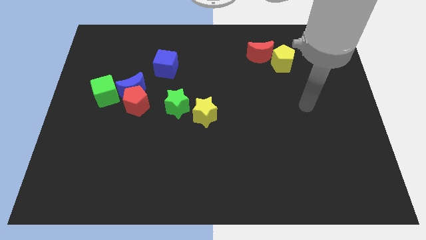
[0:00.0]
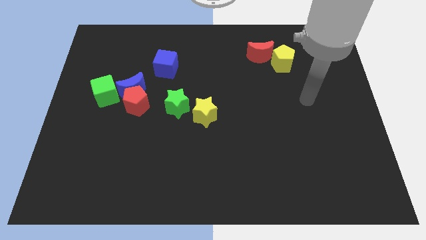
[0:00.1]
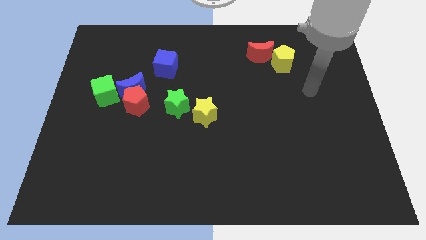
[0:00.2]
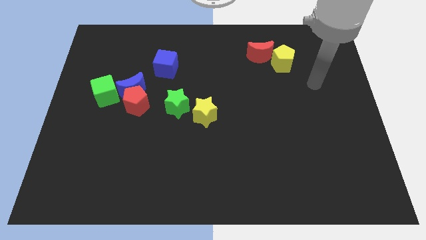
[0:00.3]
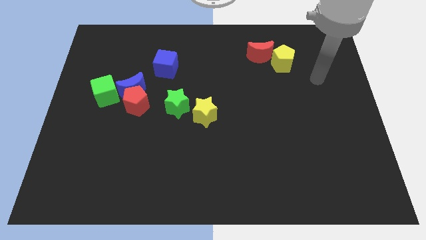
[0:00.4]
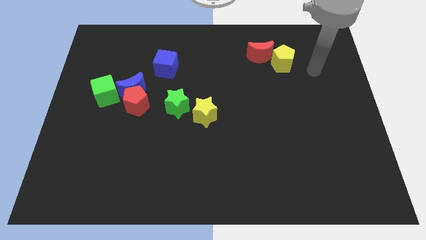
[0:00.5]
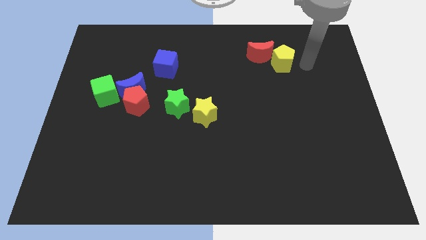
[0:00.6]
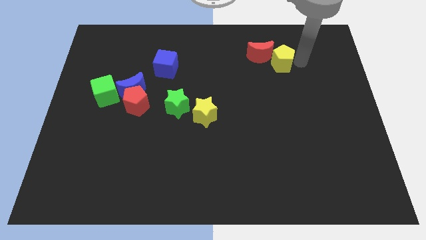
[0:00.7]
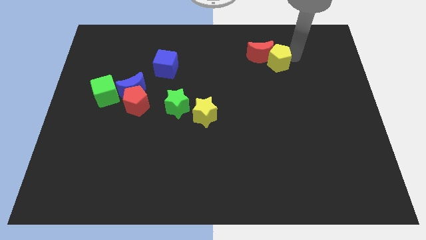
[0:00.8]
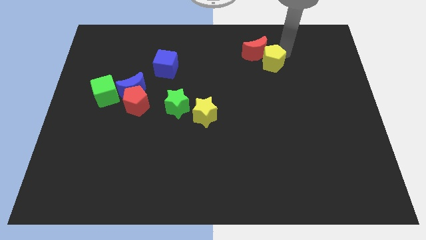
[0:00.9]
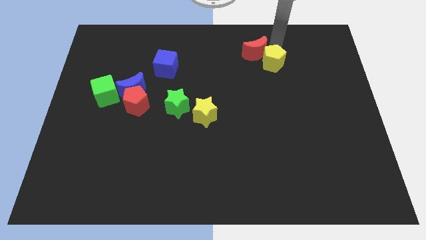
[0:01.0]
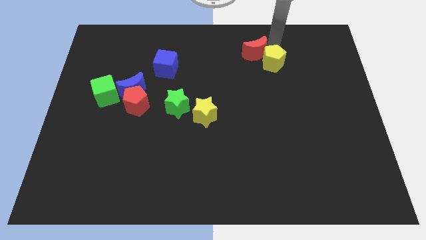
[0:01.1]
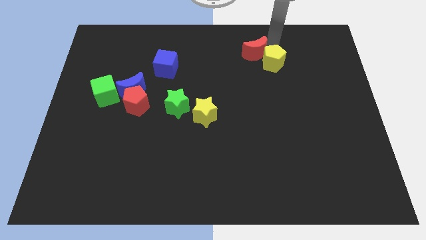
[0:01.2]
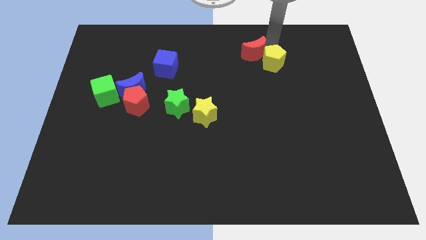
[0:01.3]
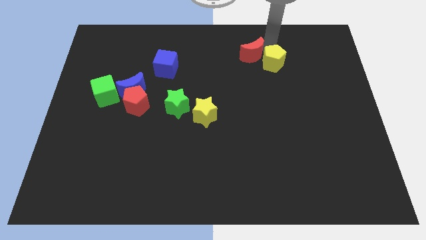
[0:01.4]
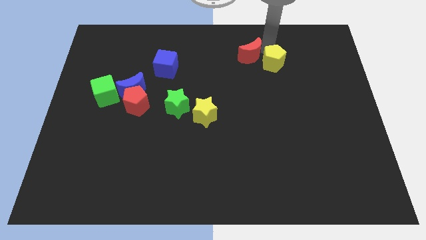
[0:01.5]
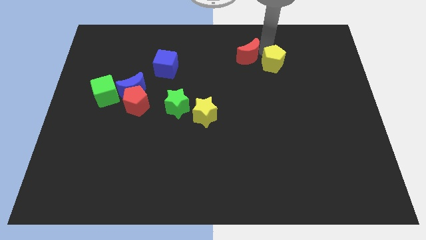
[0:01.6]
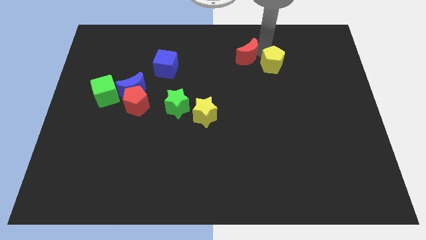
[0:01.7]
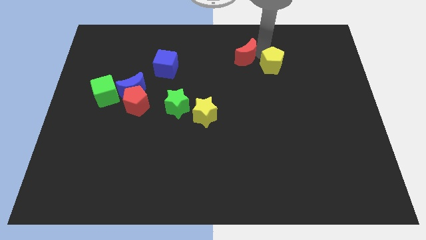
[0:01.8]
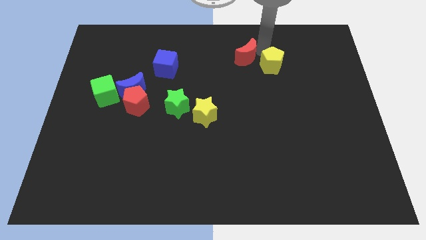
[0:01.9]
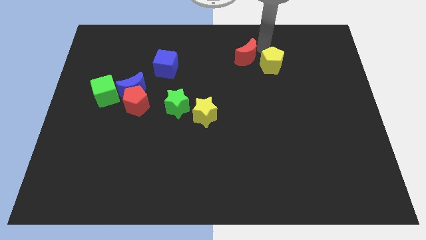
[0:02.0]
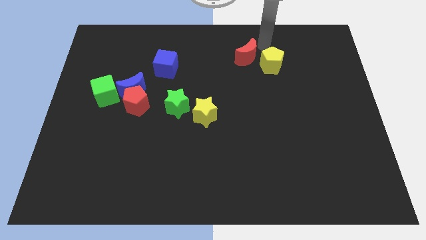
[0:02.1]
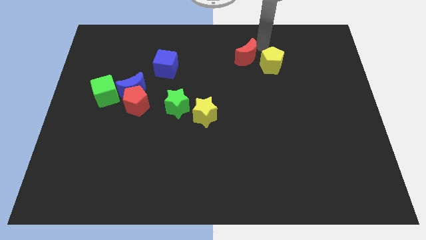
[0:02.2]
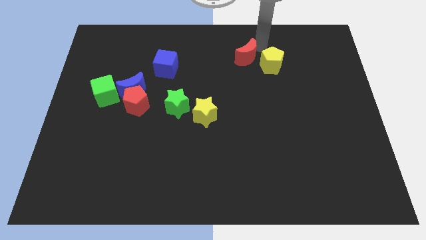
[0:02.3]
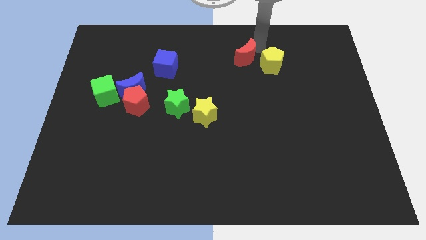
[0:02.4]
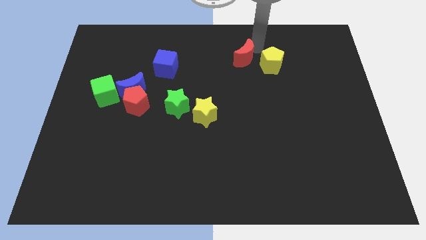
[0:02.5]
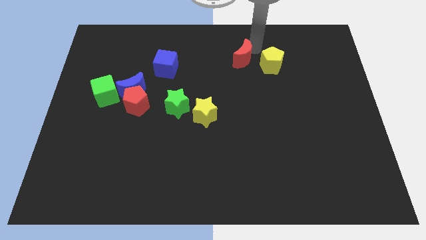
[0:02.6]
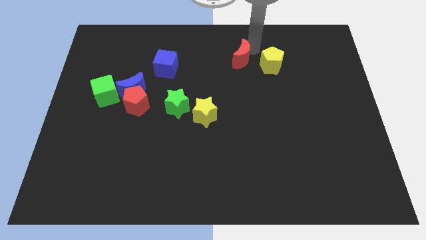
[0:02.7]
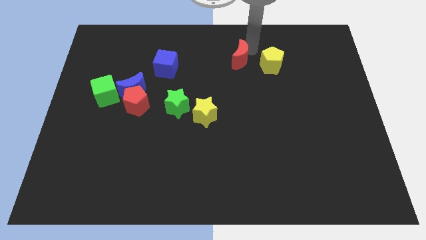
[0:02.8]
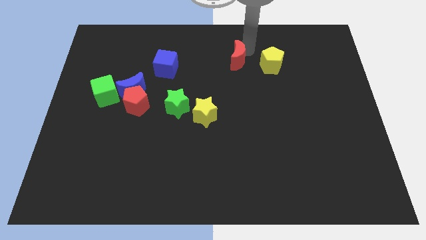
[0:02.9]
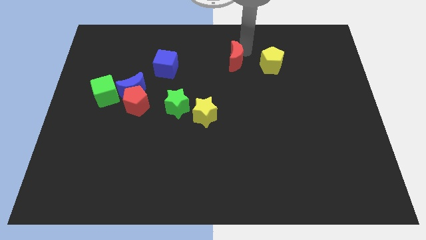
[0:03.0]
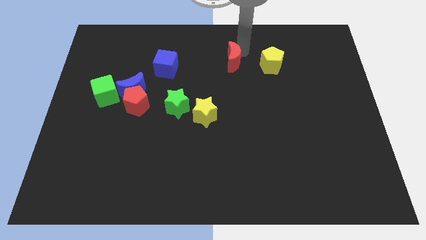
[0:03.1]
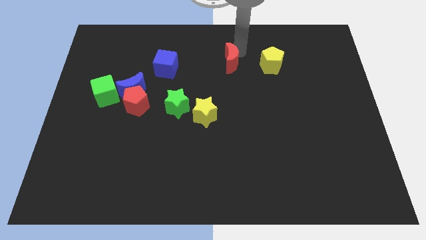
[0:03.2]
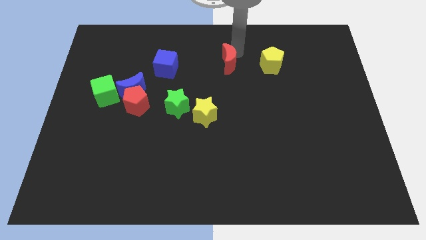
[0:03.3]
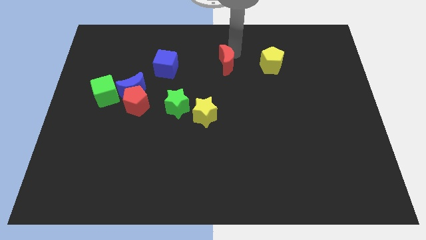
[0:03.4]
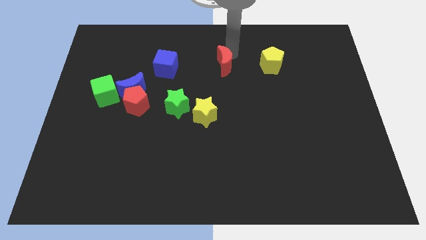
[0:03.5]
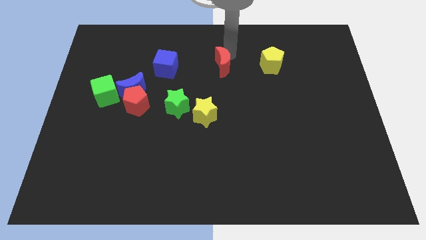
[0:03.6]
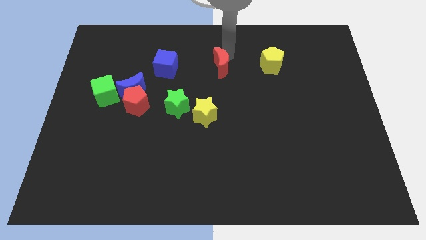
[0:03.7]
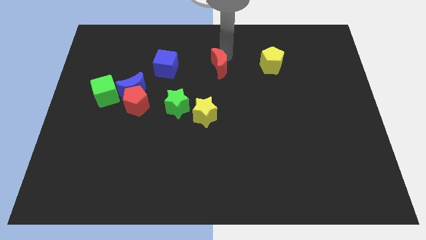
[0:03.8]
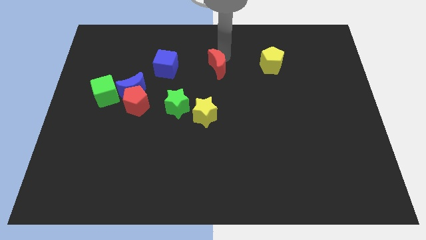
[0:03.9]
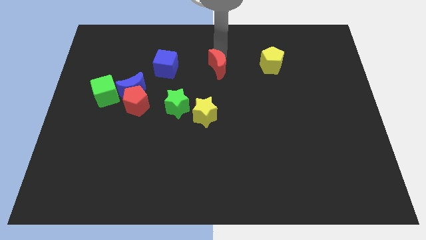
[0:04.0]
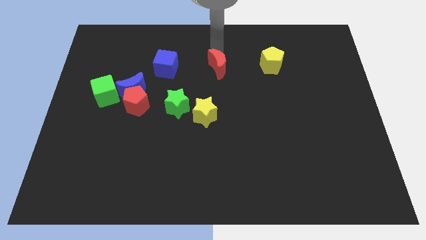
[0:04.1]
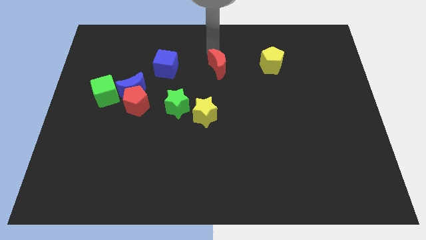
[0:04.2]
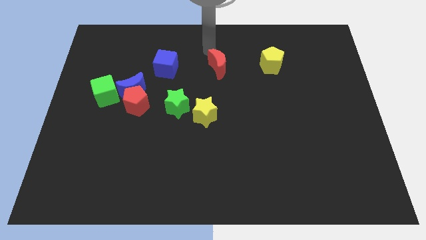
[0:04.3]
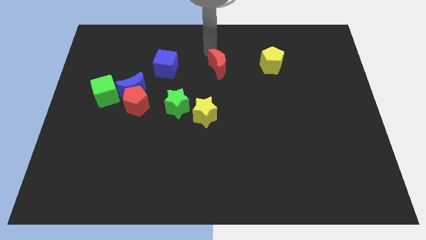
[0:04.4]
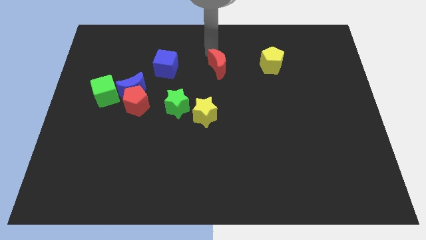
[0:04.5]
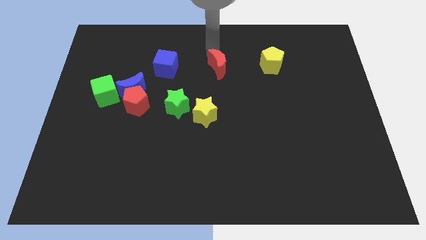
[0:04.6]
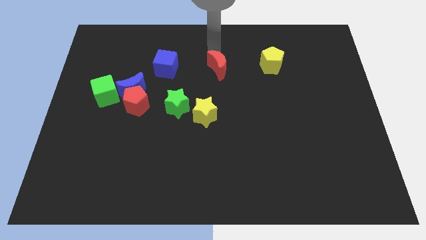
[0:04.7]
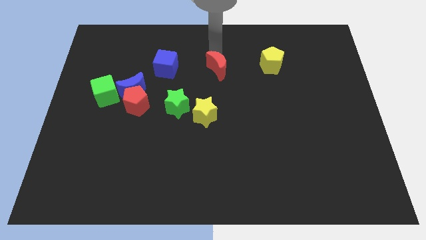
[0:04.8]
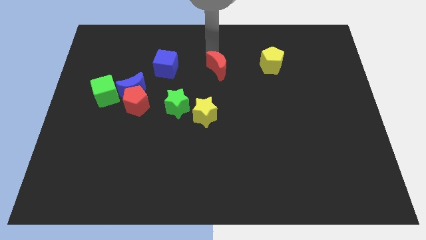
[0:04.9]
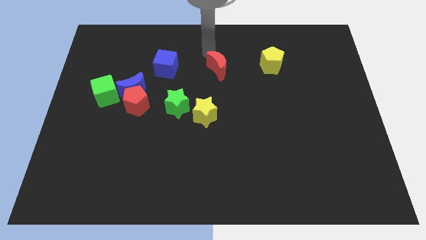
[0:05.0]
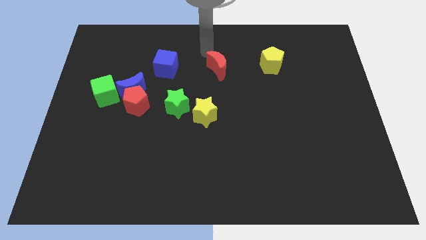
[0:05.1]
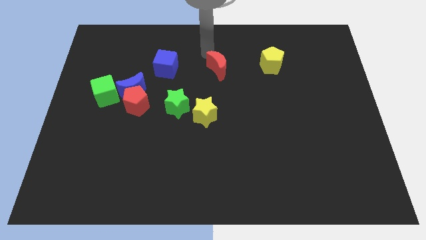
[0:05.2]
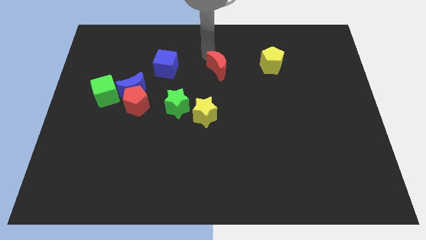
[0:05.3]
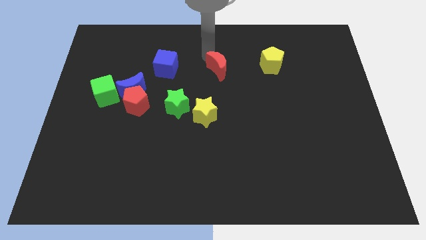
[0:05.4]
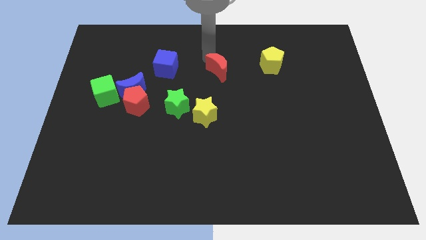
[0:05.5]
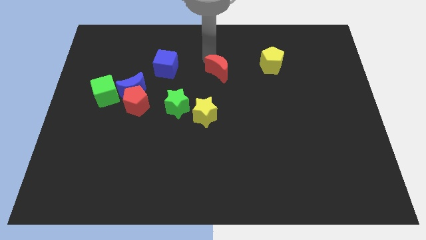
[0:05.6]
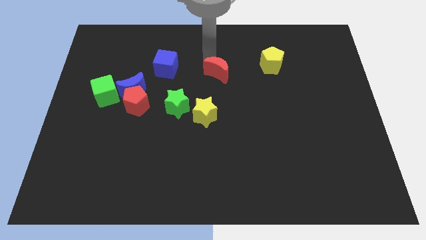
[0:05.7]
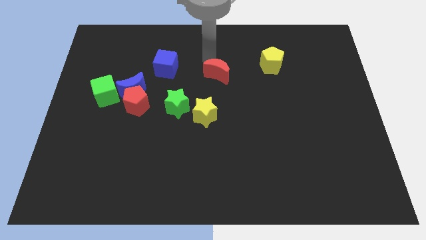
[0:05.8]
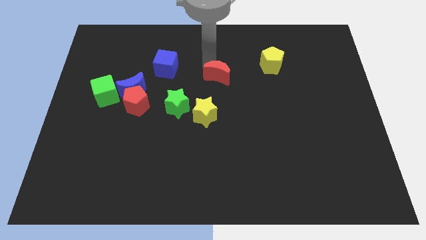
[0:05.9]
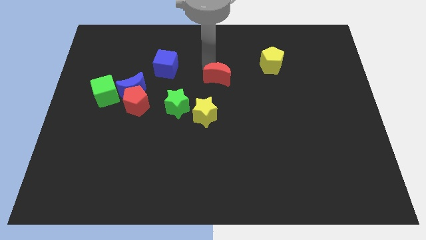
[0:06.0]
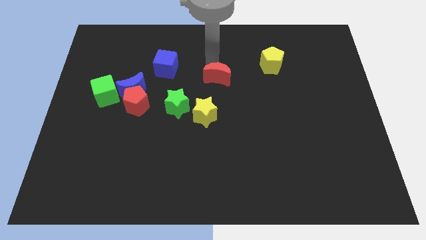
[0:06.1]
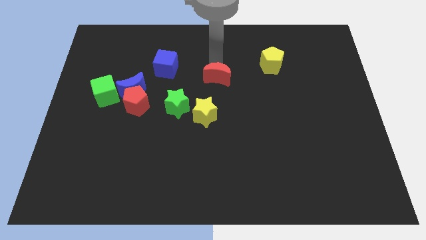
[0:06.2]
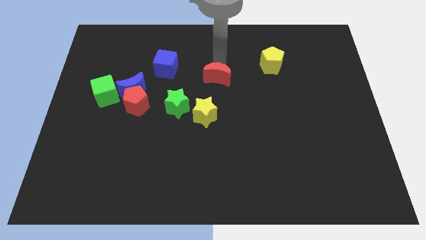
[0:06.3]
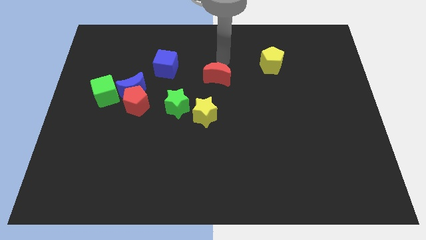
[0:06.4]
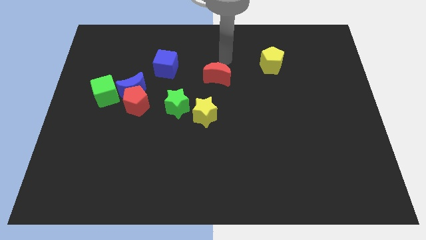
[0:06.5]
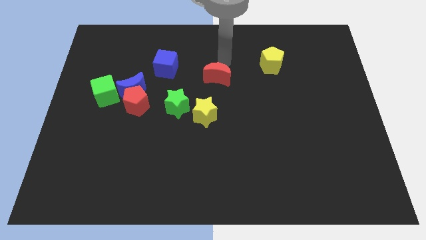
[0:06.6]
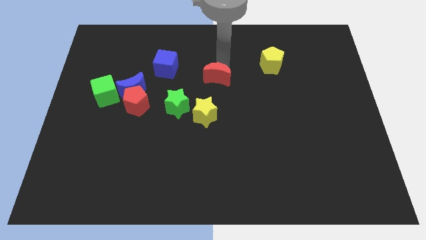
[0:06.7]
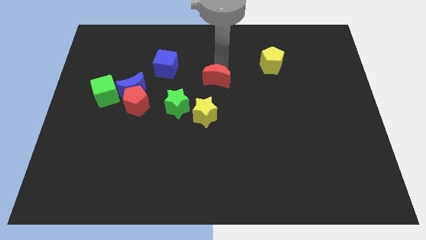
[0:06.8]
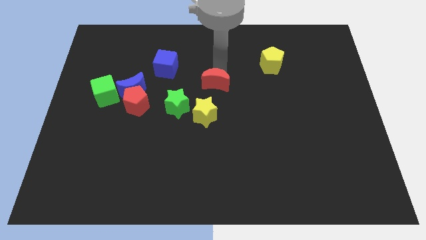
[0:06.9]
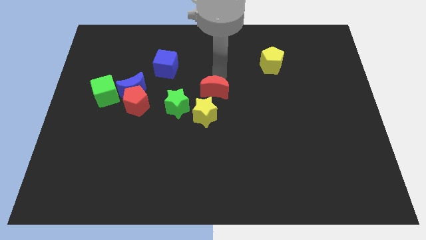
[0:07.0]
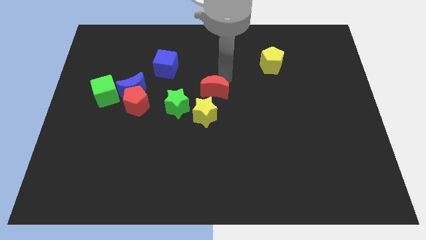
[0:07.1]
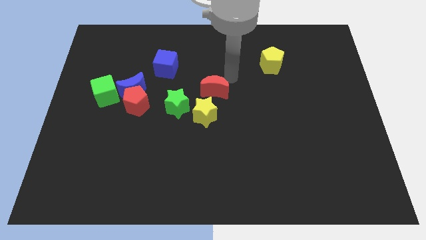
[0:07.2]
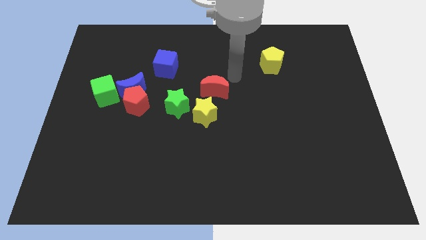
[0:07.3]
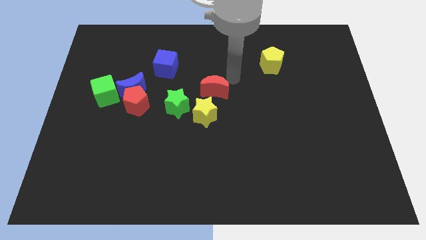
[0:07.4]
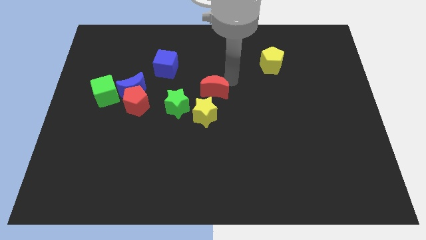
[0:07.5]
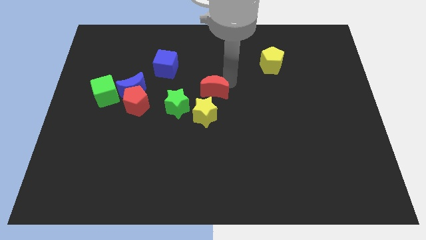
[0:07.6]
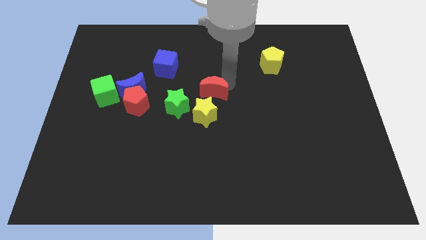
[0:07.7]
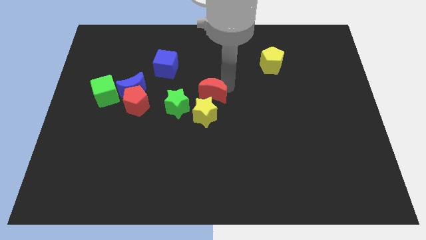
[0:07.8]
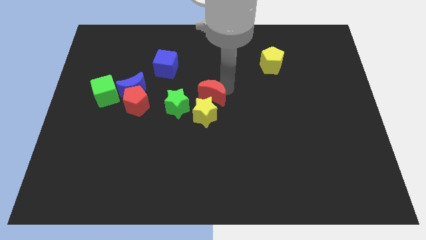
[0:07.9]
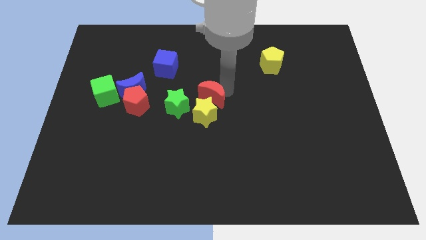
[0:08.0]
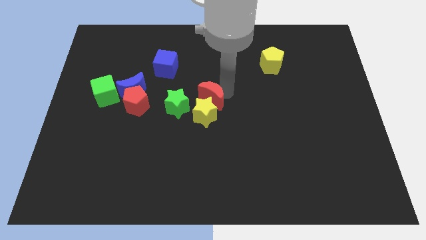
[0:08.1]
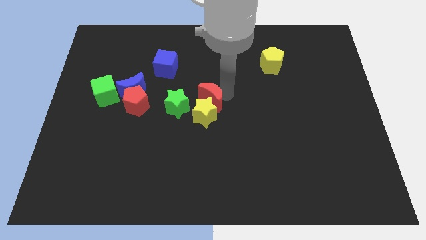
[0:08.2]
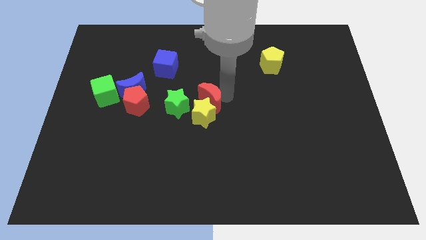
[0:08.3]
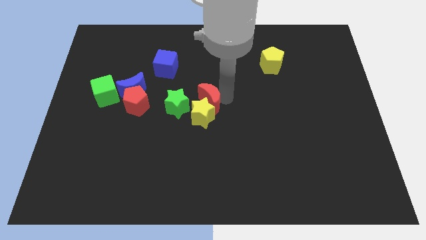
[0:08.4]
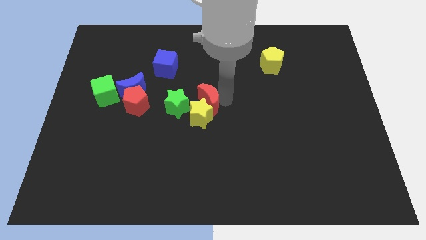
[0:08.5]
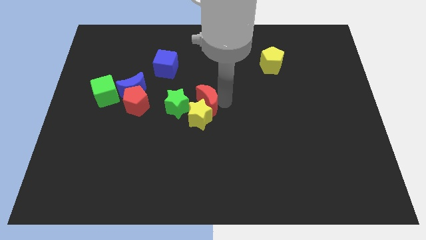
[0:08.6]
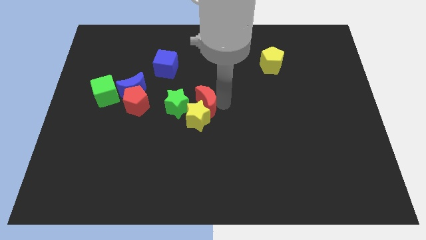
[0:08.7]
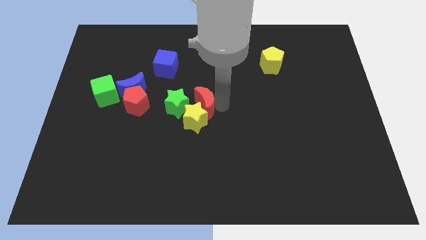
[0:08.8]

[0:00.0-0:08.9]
push the red moon to the right of the red pentagon
